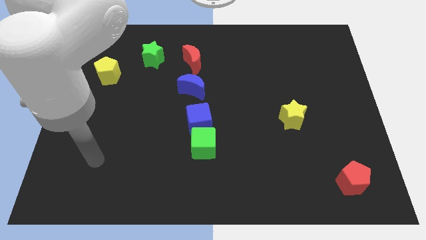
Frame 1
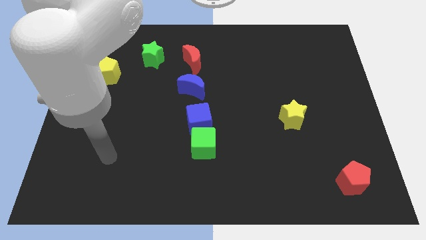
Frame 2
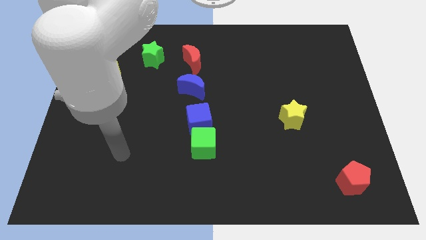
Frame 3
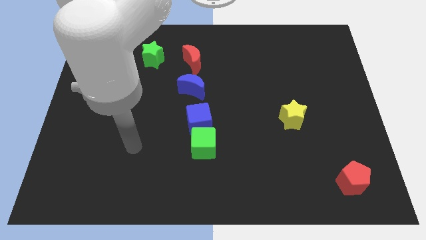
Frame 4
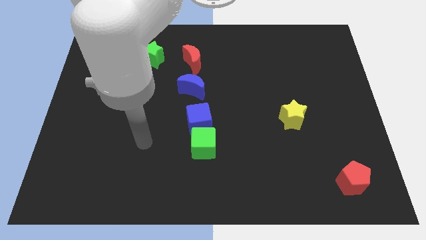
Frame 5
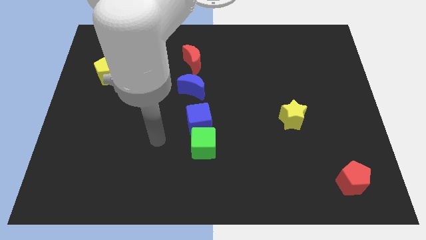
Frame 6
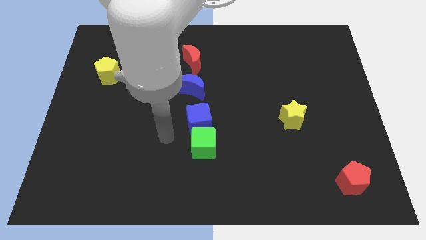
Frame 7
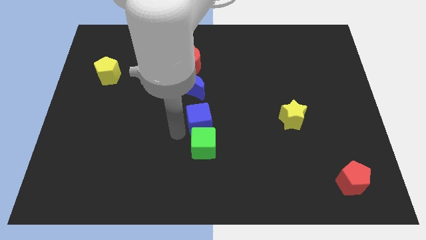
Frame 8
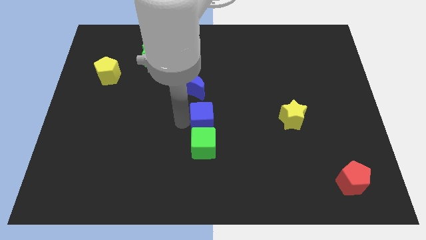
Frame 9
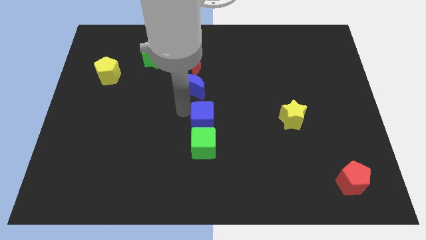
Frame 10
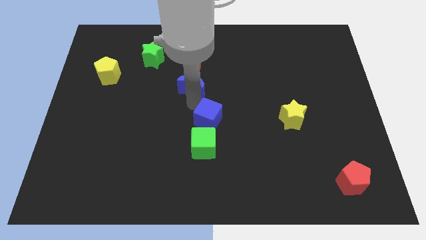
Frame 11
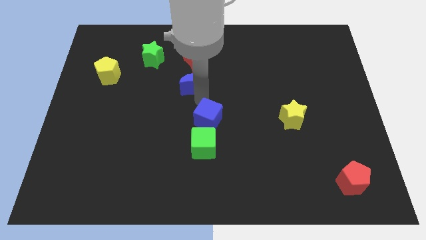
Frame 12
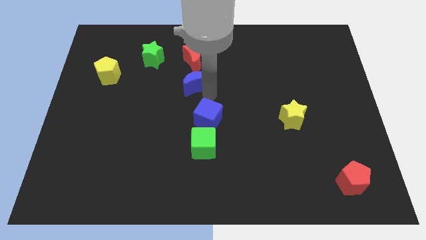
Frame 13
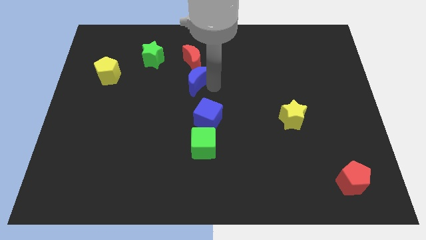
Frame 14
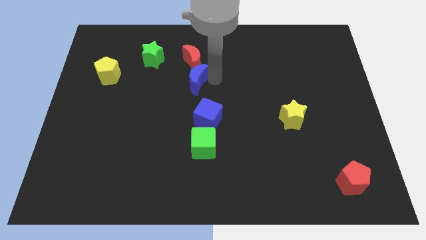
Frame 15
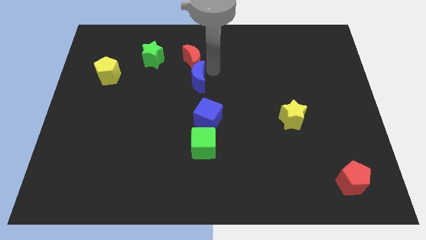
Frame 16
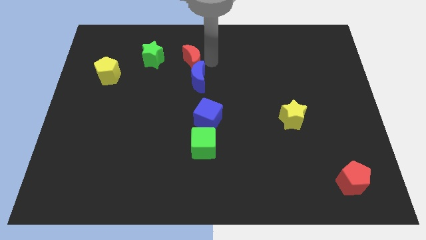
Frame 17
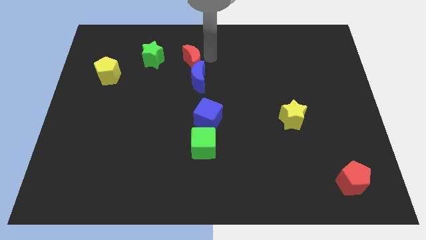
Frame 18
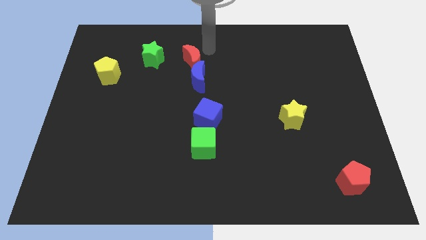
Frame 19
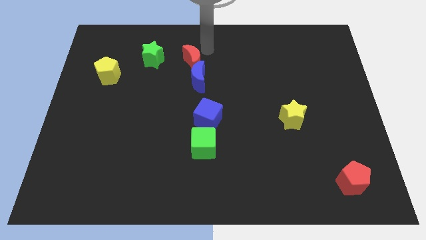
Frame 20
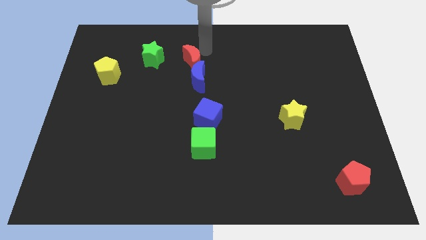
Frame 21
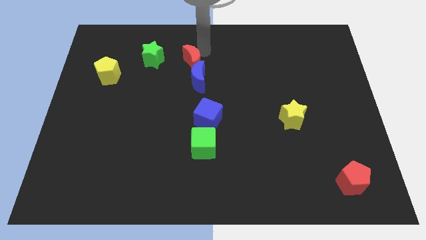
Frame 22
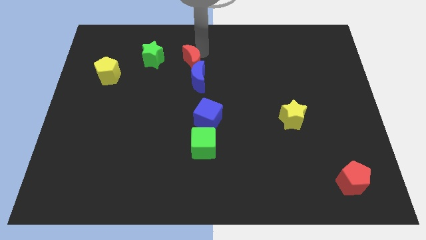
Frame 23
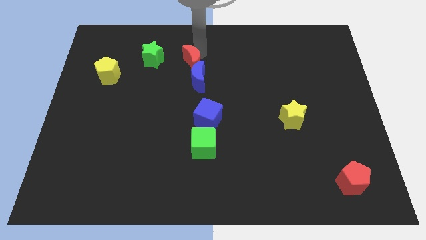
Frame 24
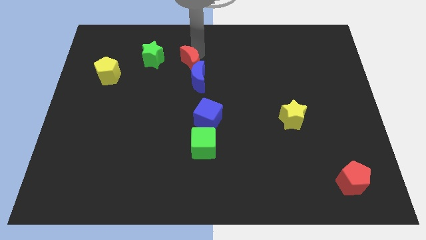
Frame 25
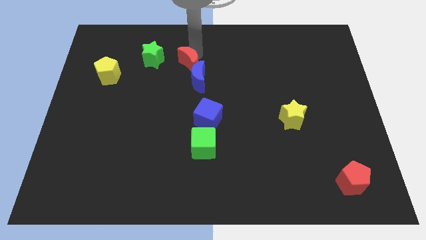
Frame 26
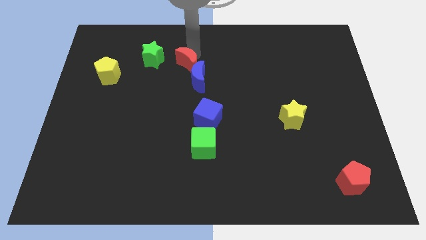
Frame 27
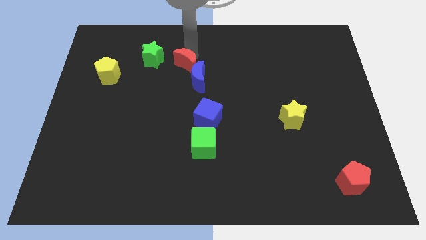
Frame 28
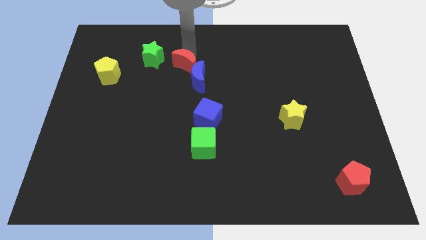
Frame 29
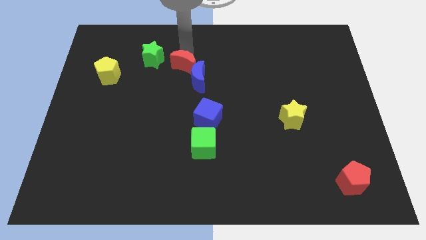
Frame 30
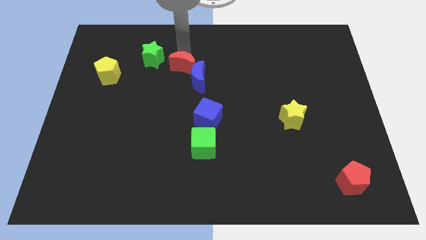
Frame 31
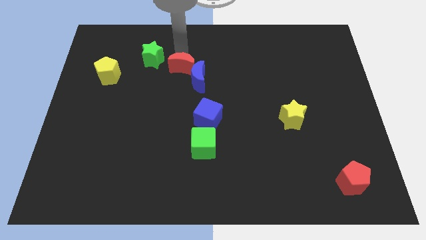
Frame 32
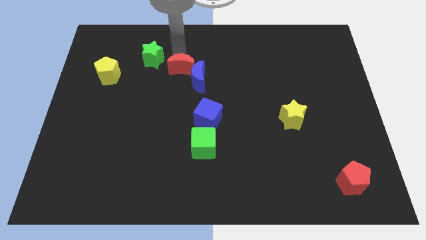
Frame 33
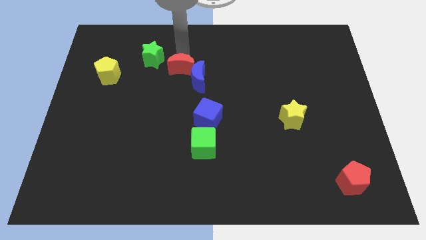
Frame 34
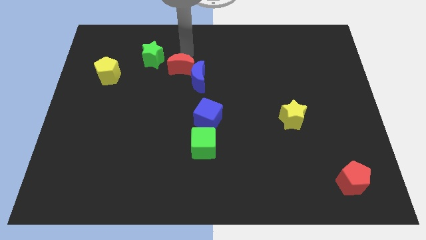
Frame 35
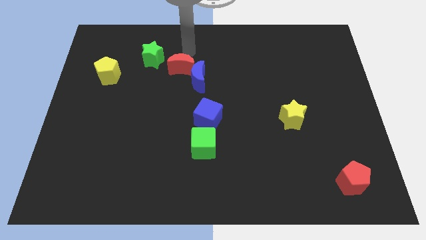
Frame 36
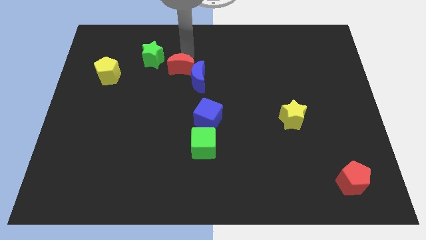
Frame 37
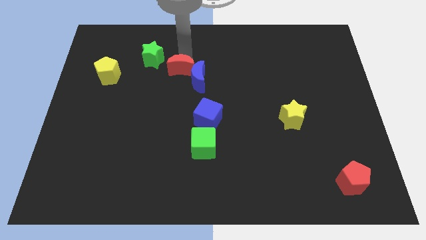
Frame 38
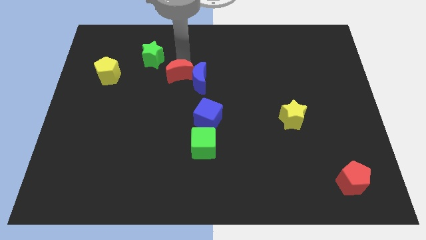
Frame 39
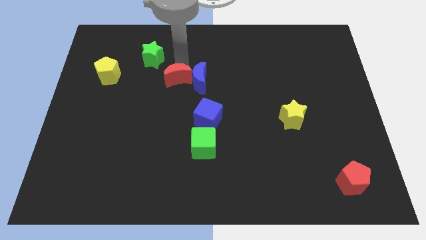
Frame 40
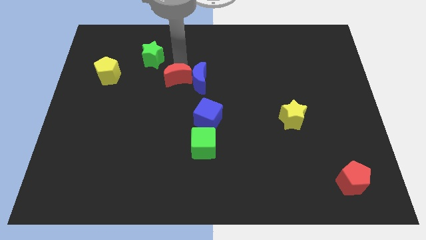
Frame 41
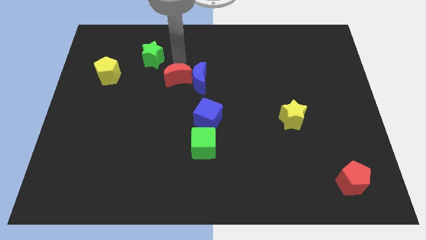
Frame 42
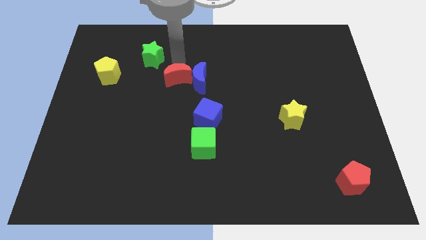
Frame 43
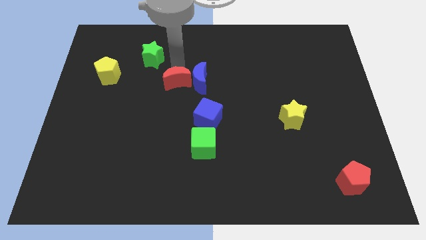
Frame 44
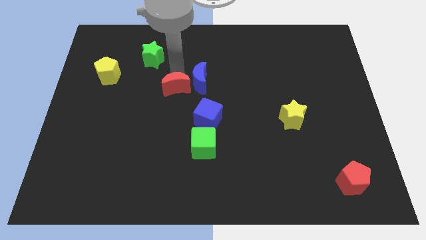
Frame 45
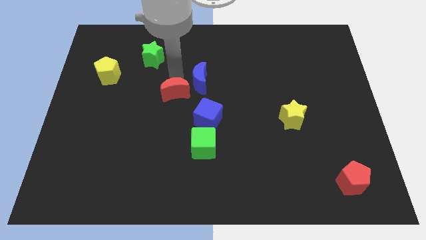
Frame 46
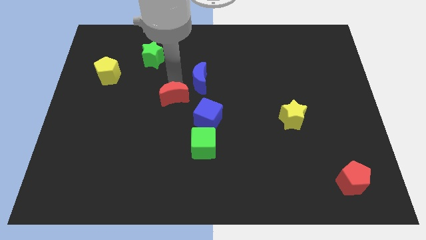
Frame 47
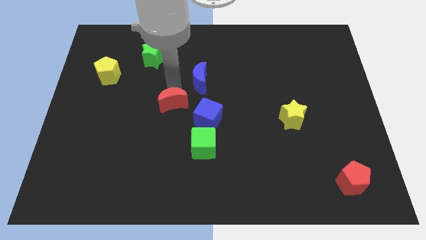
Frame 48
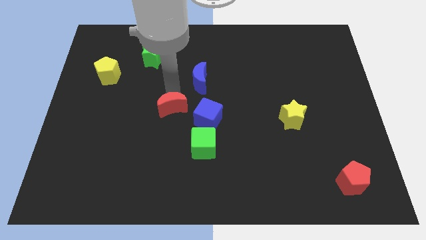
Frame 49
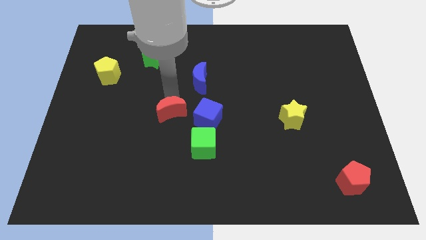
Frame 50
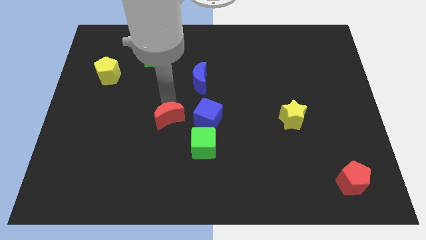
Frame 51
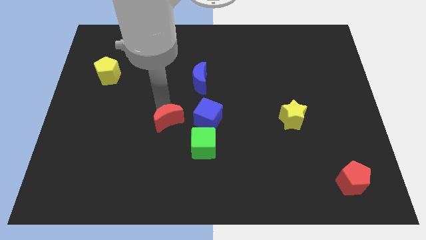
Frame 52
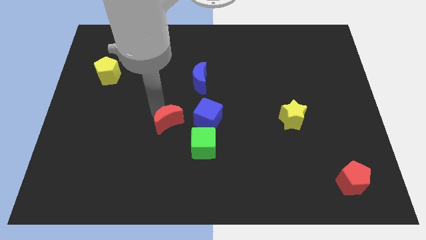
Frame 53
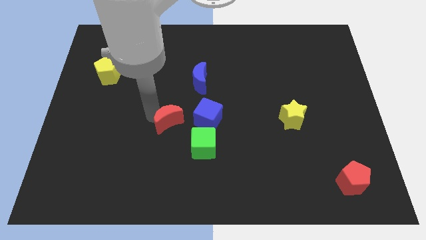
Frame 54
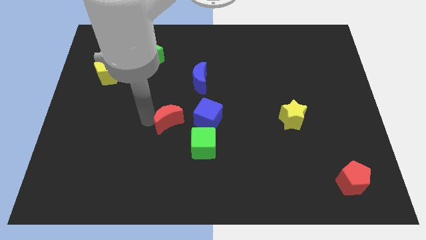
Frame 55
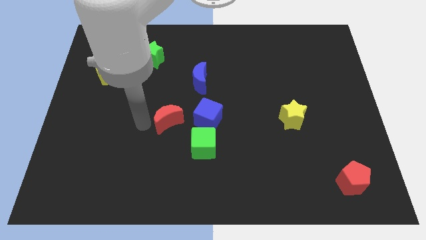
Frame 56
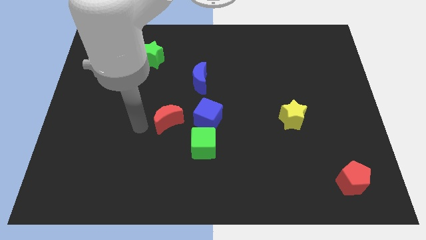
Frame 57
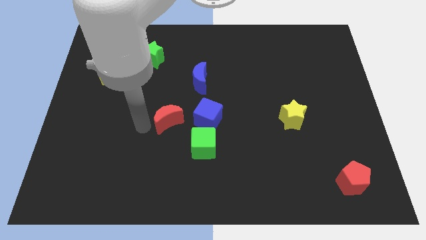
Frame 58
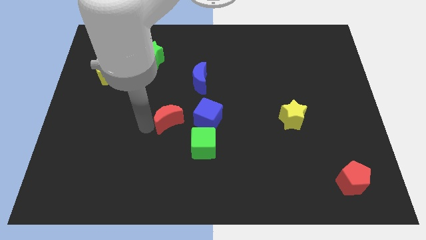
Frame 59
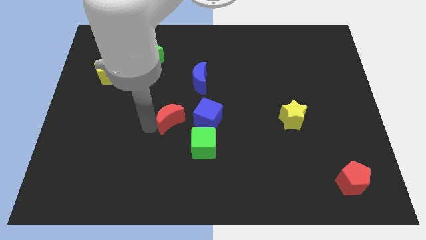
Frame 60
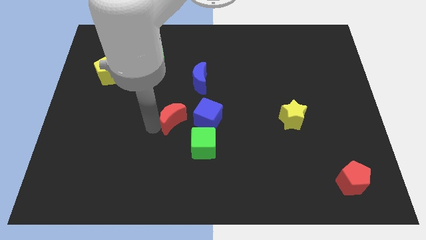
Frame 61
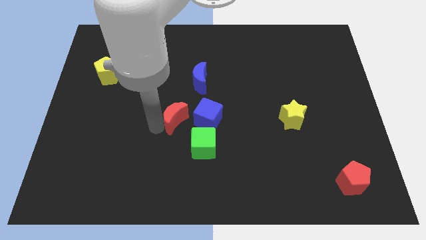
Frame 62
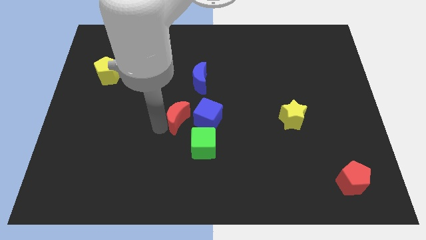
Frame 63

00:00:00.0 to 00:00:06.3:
move the red moon to the bottom of the blue moon

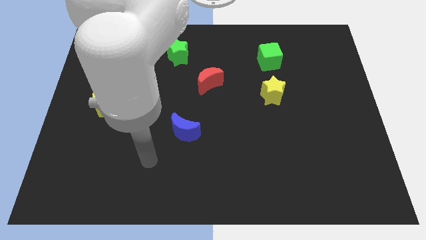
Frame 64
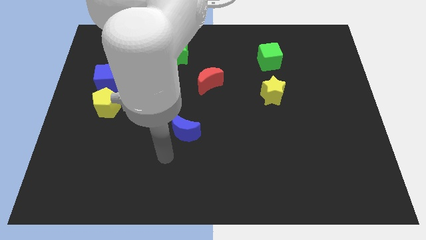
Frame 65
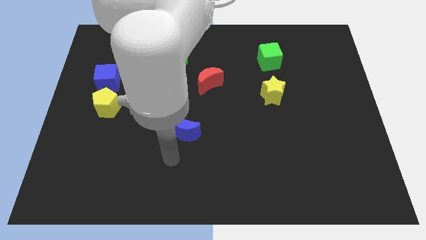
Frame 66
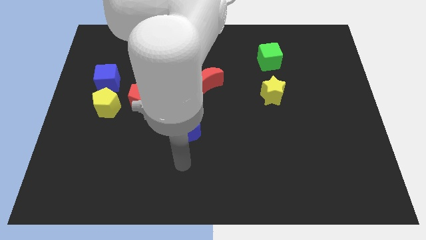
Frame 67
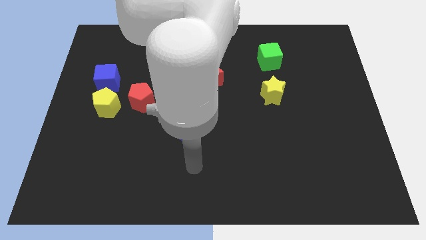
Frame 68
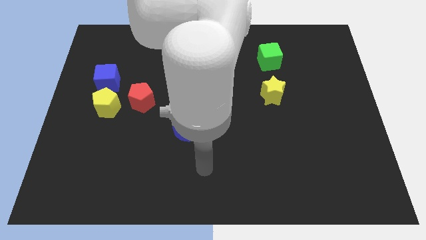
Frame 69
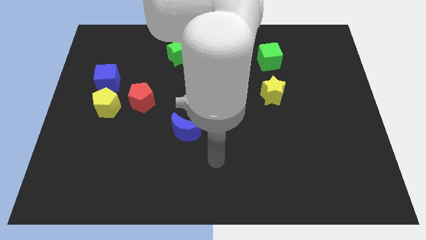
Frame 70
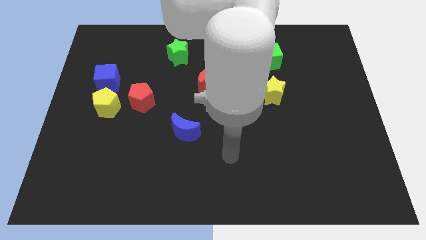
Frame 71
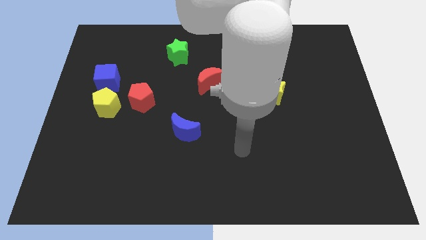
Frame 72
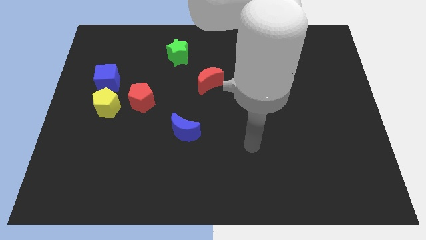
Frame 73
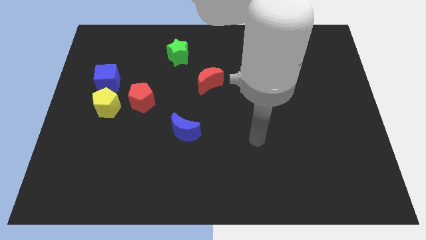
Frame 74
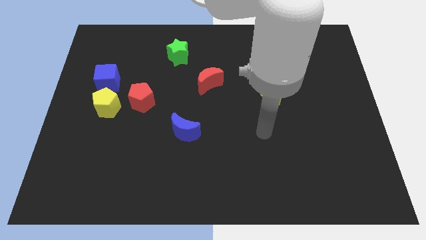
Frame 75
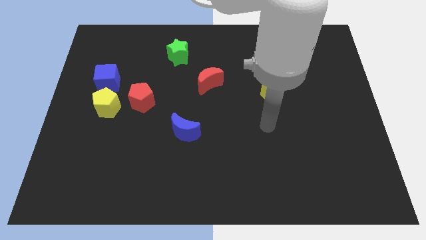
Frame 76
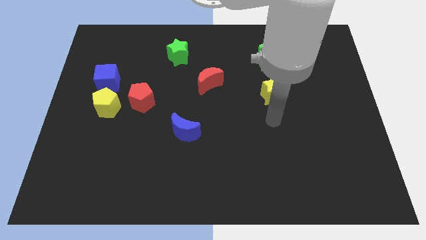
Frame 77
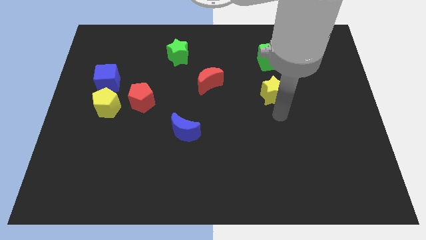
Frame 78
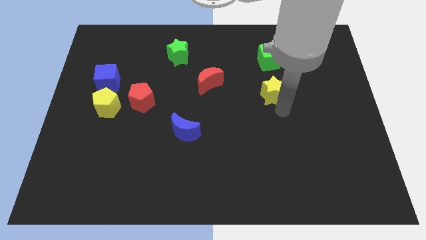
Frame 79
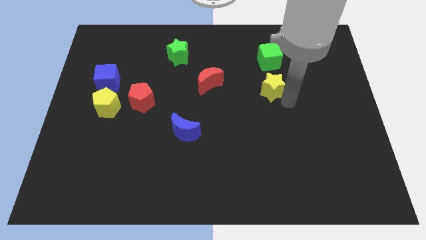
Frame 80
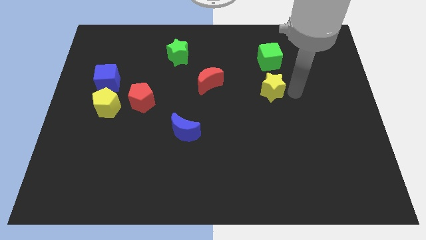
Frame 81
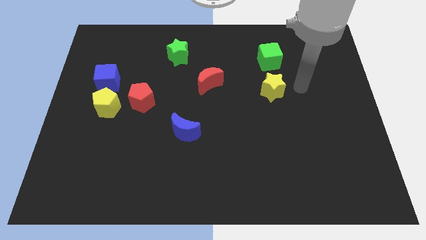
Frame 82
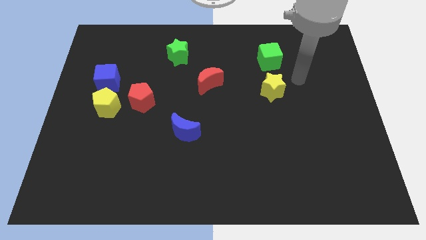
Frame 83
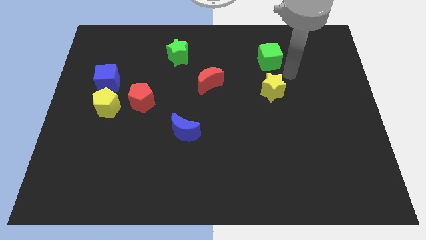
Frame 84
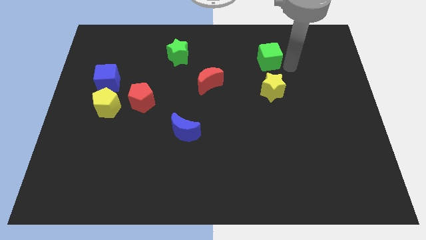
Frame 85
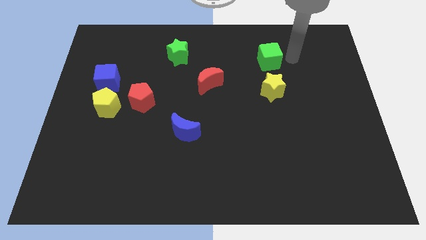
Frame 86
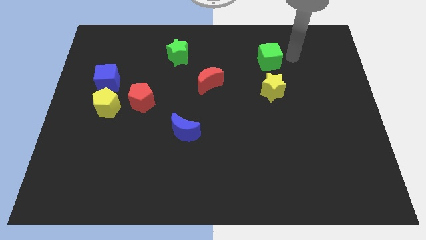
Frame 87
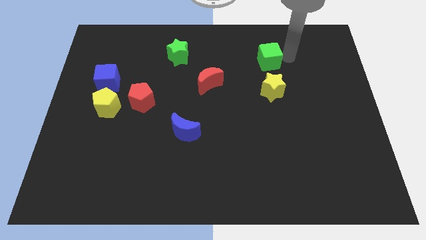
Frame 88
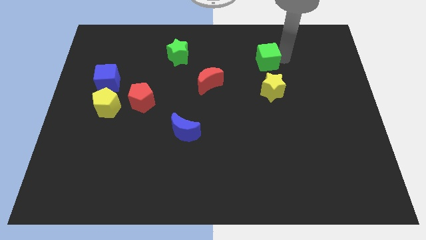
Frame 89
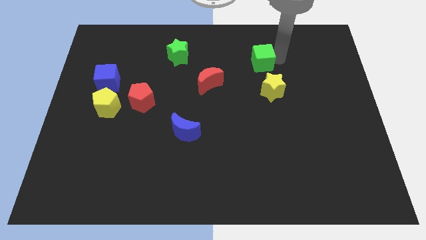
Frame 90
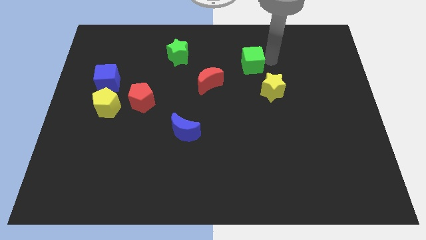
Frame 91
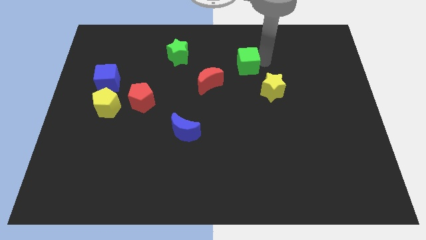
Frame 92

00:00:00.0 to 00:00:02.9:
move the green cube diagonally up and to the right of the red moon
